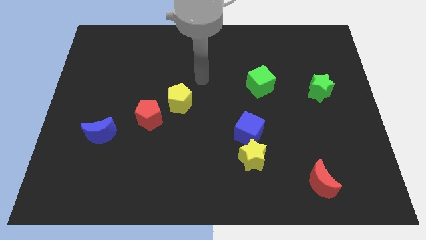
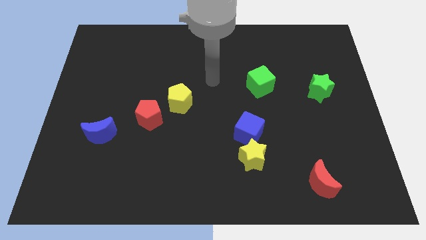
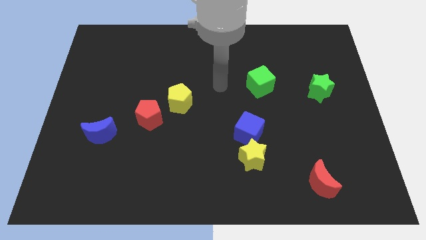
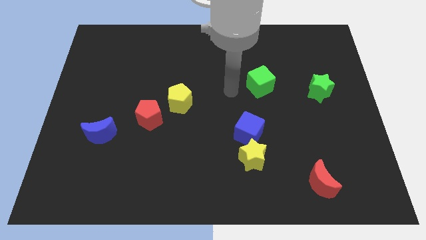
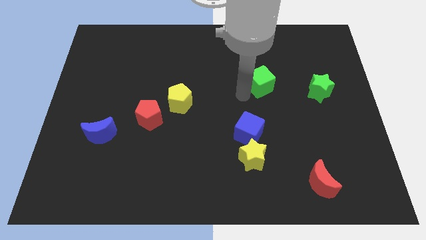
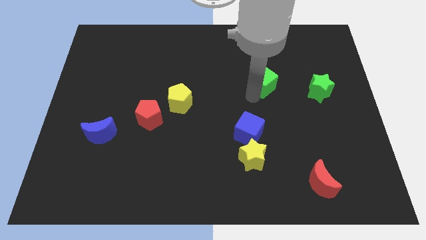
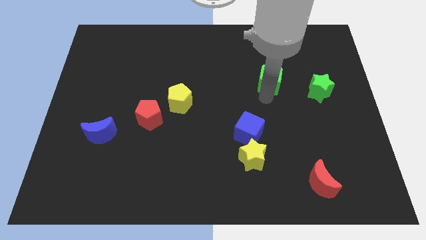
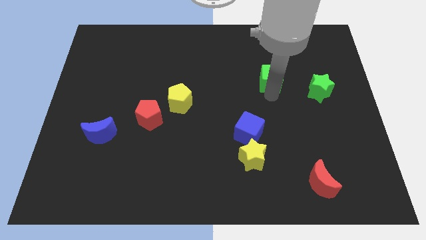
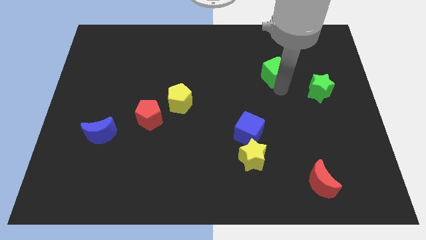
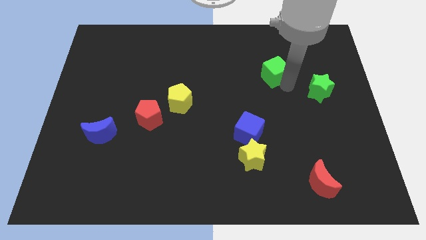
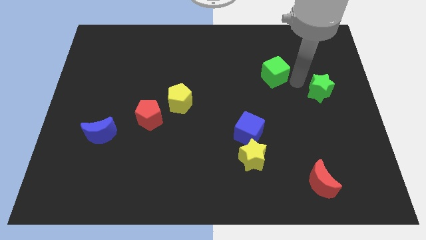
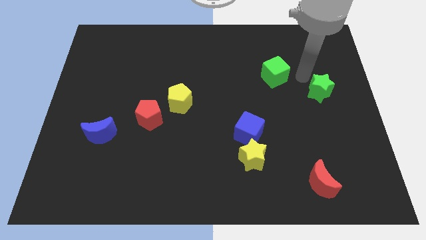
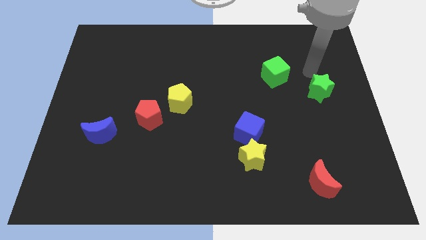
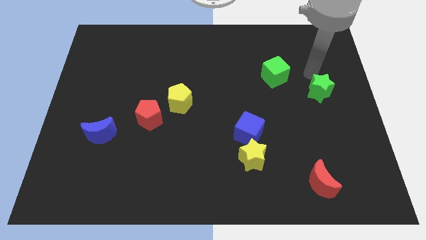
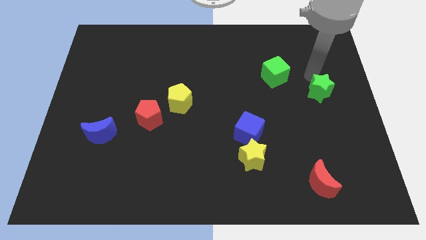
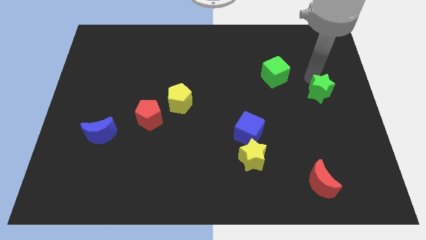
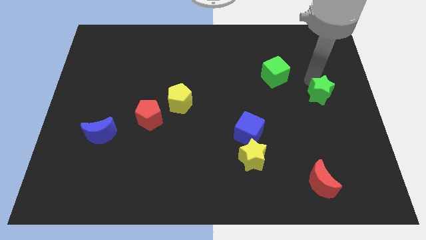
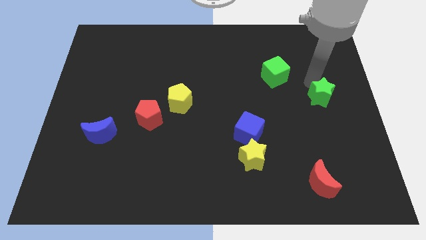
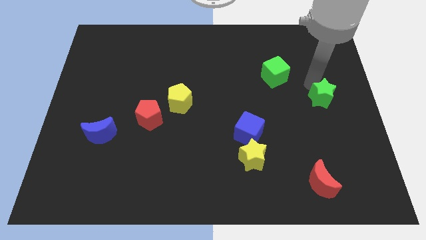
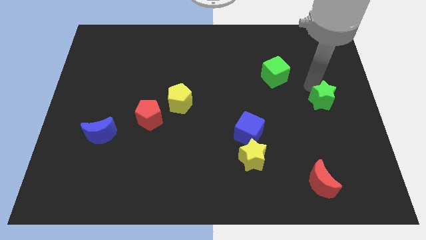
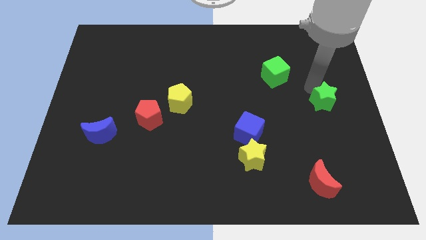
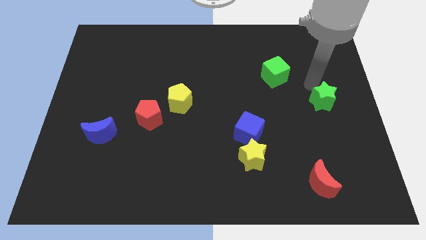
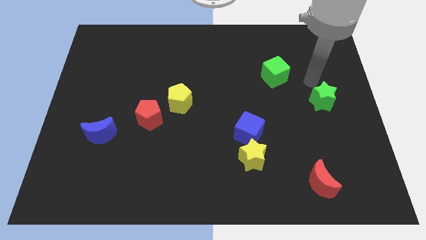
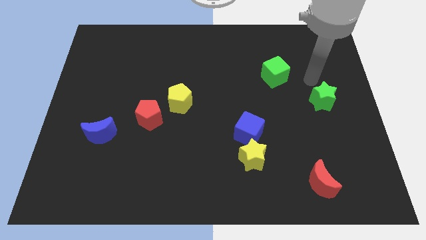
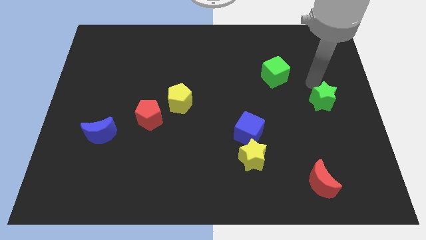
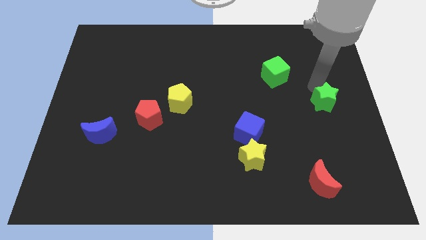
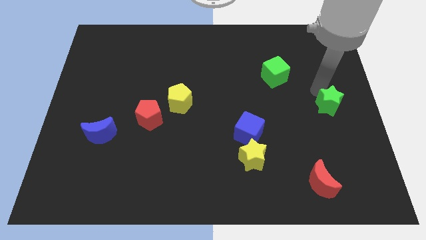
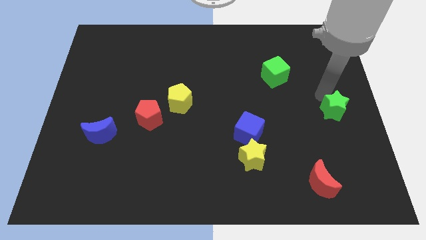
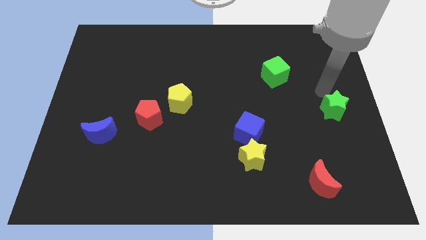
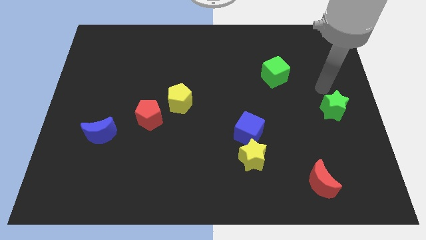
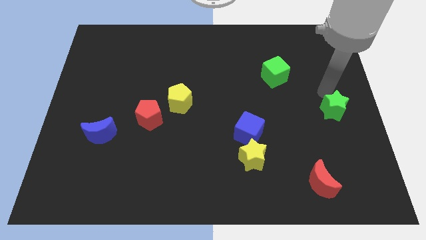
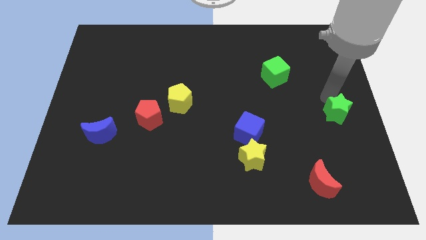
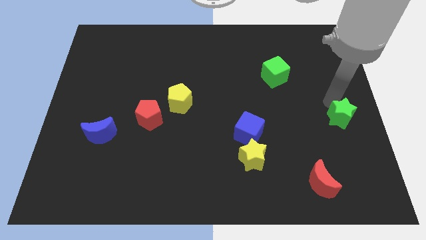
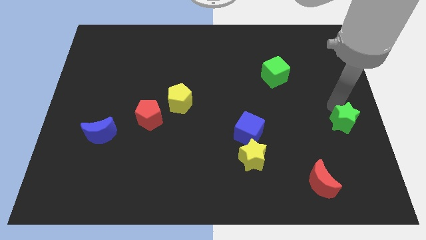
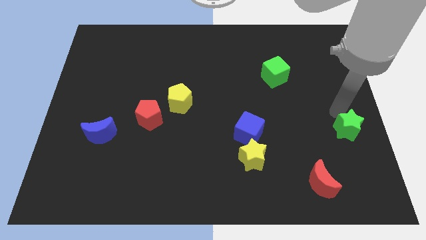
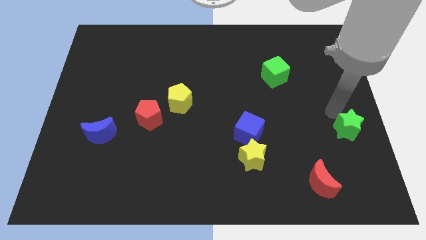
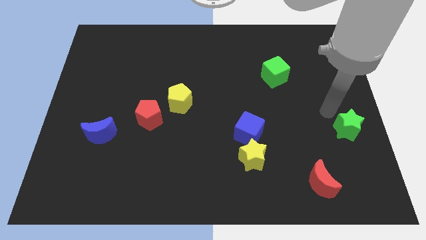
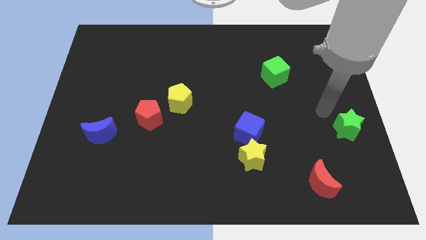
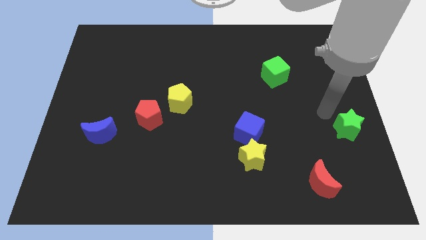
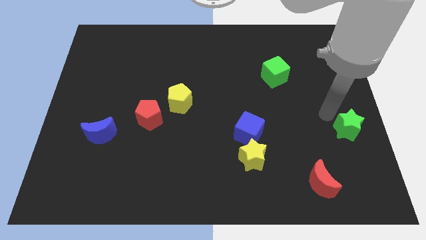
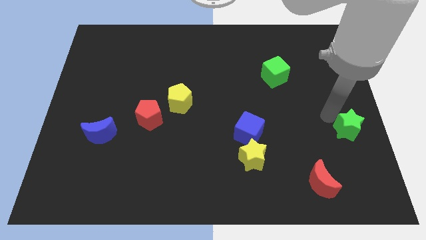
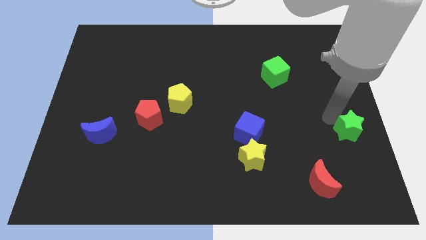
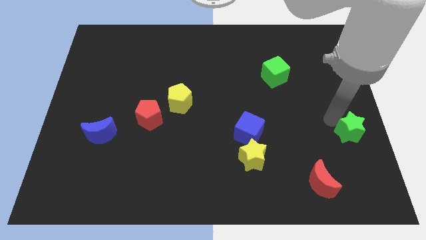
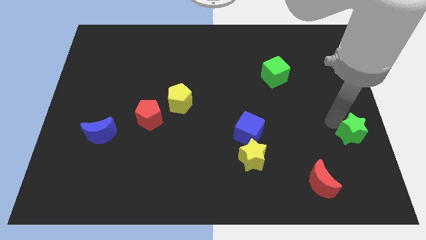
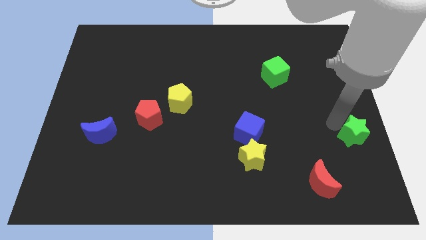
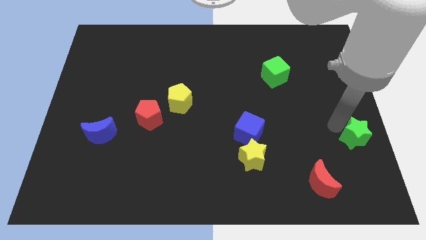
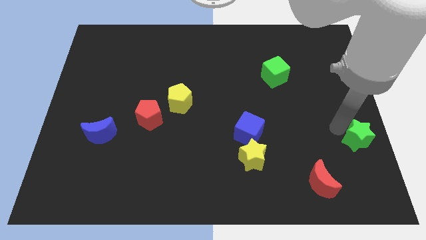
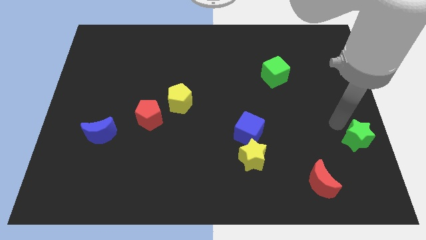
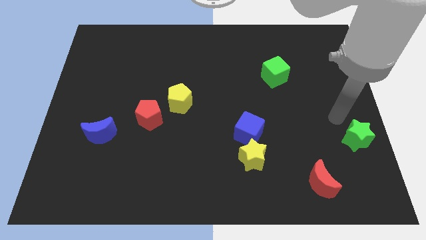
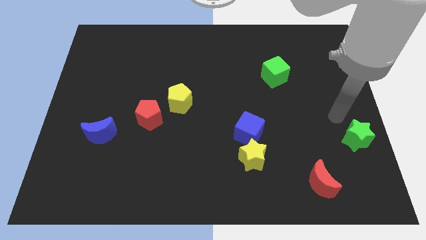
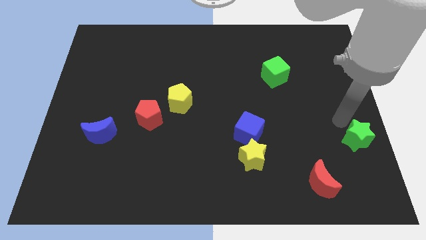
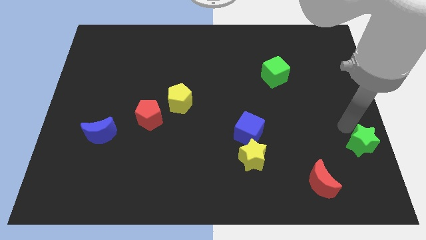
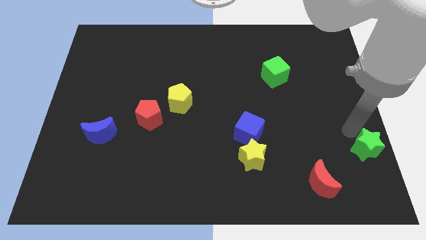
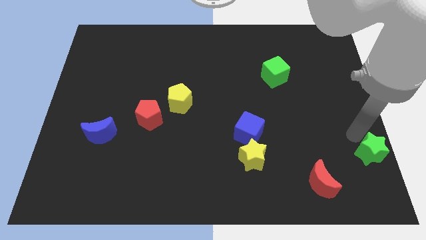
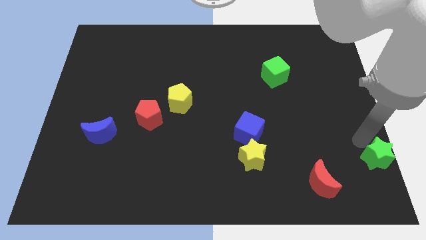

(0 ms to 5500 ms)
put the green star to the lower right corner

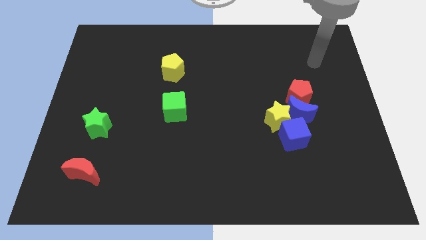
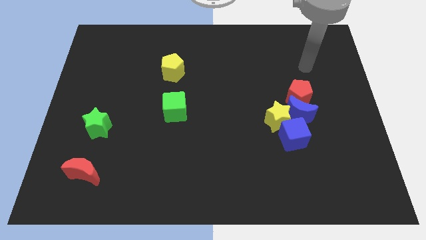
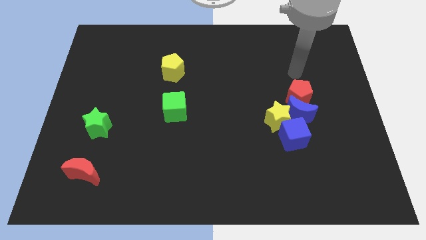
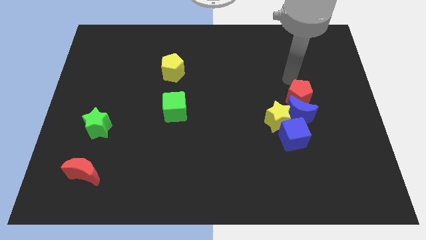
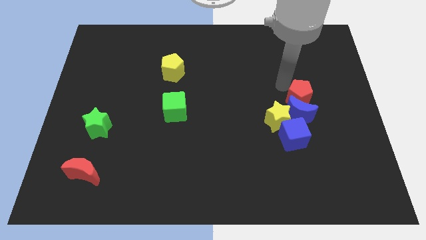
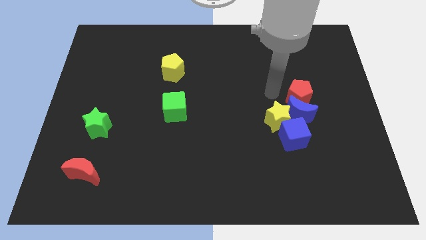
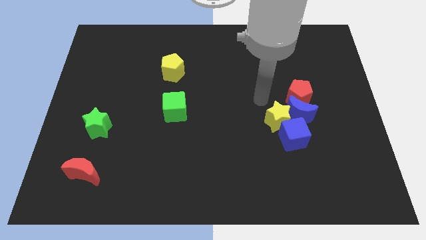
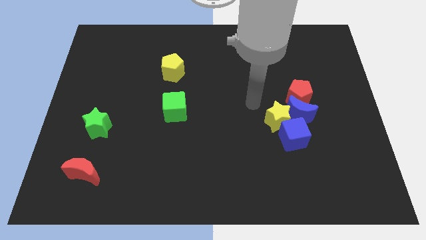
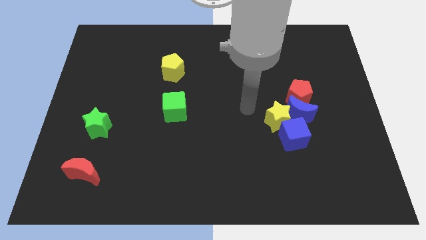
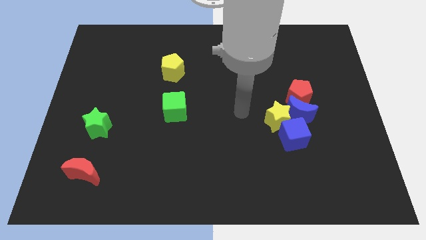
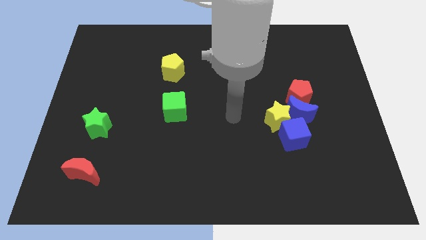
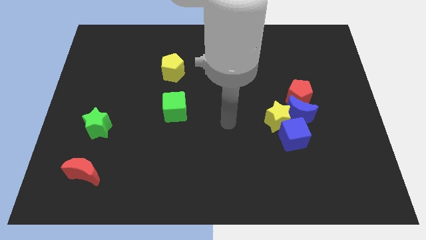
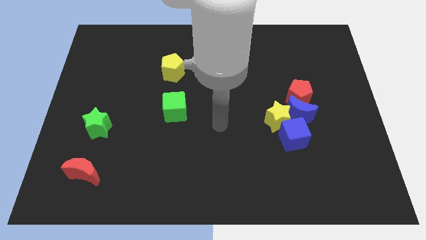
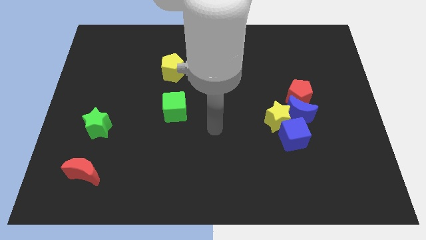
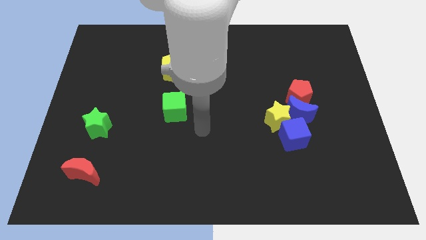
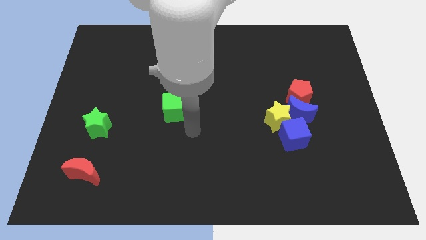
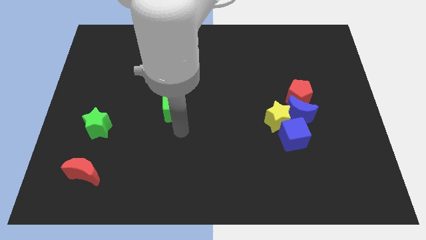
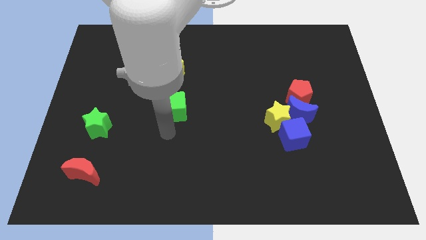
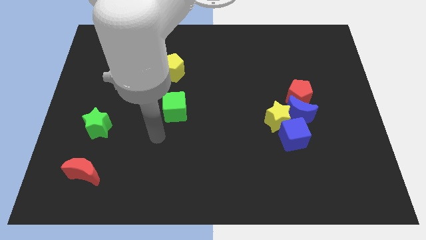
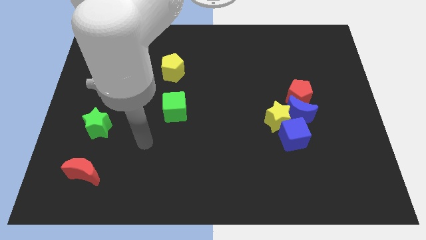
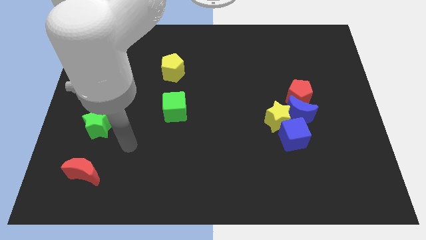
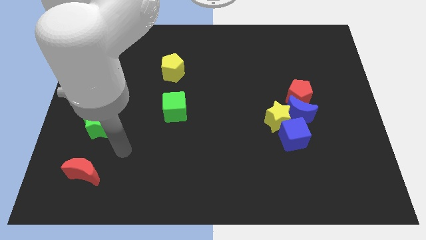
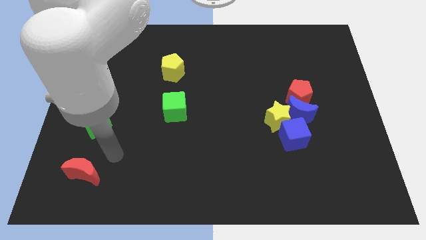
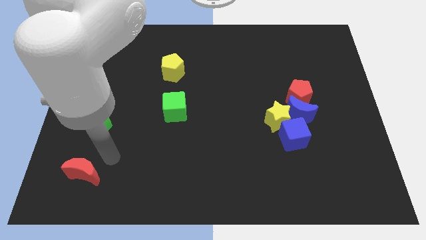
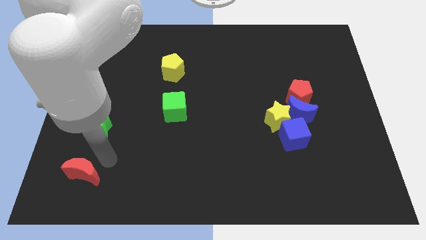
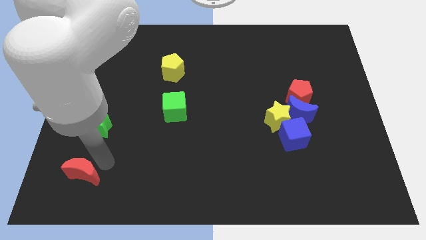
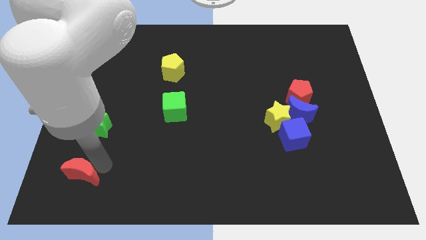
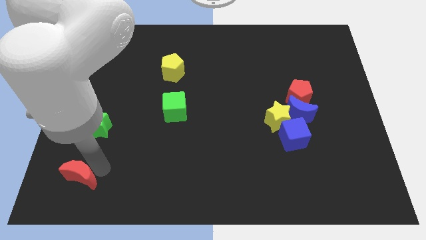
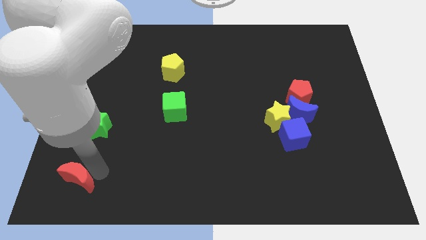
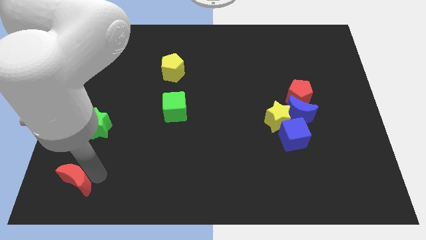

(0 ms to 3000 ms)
move the red moon to the bottom left corner
